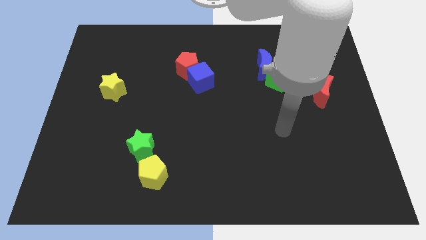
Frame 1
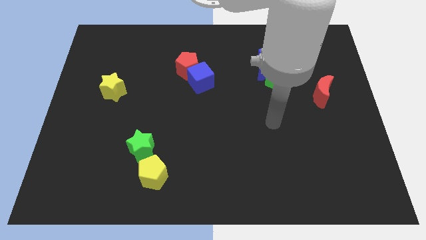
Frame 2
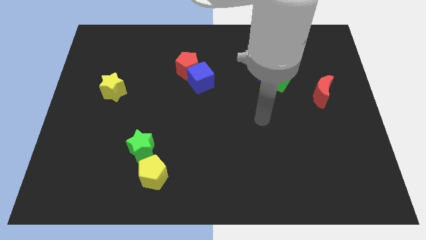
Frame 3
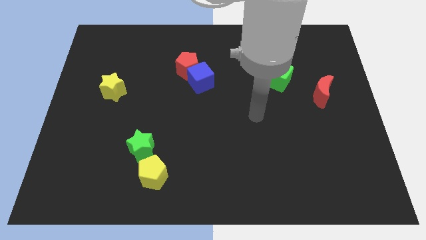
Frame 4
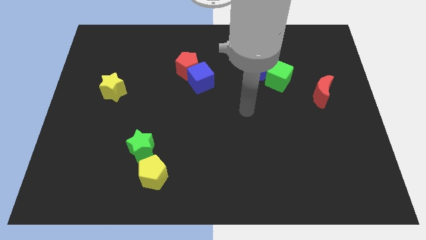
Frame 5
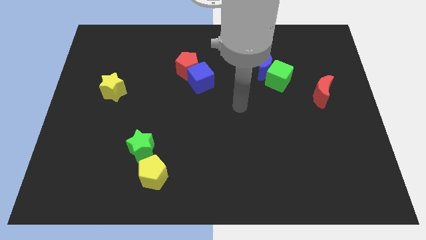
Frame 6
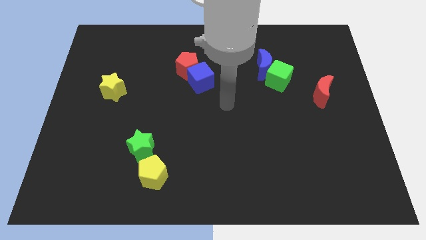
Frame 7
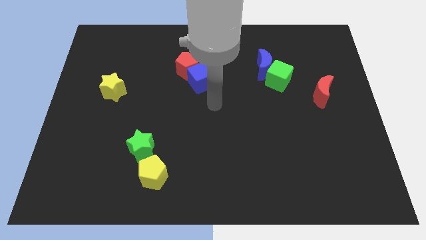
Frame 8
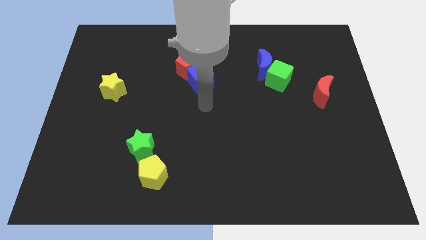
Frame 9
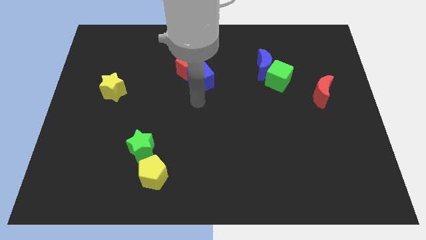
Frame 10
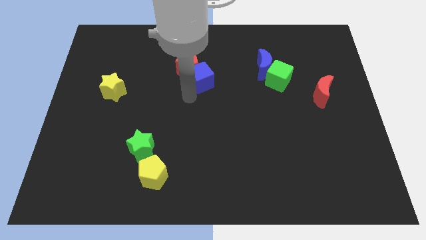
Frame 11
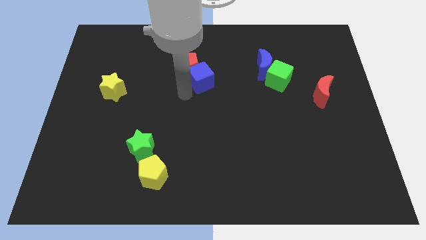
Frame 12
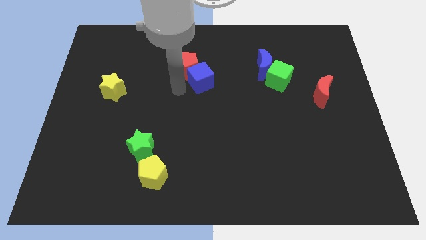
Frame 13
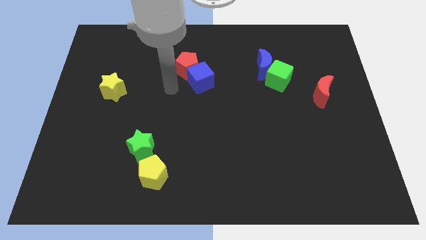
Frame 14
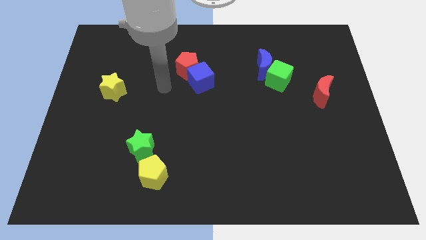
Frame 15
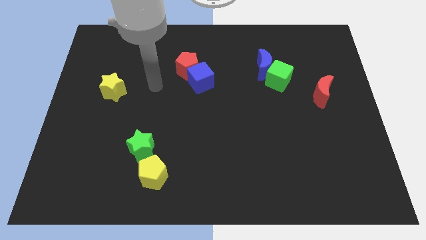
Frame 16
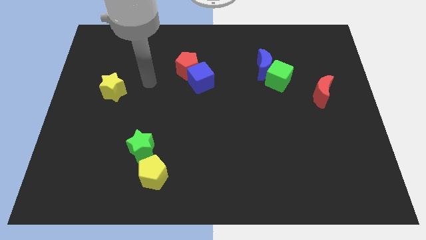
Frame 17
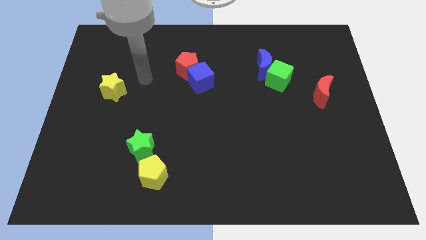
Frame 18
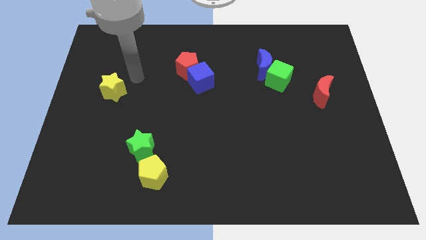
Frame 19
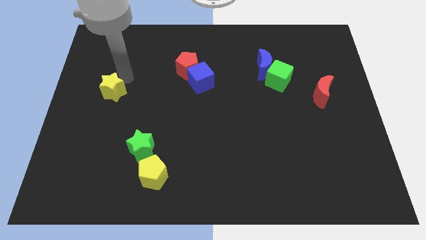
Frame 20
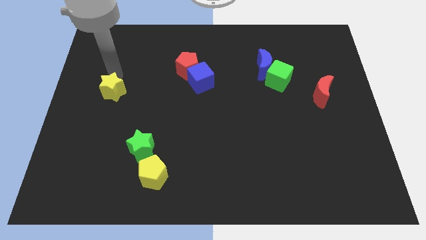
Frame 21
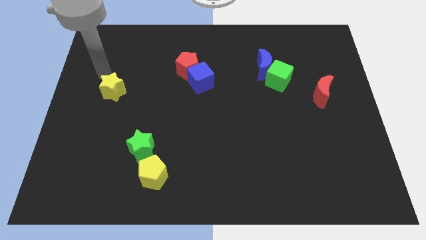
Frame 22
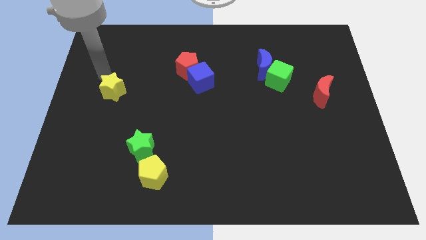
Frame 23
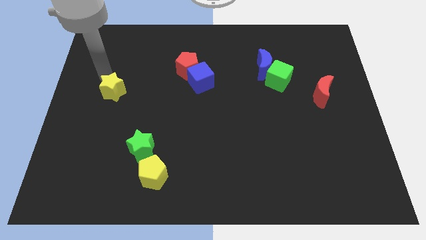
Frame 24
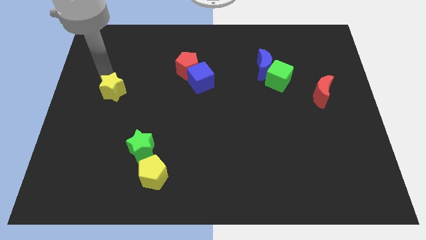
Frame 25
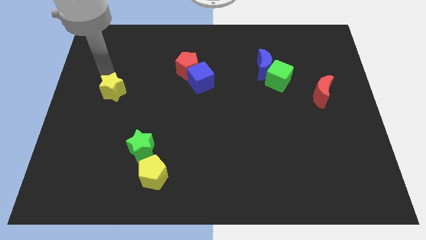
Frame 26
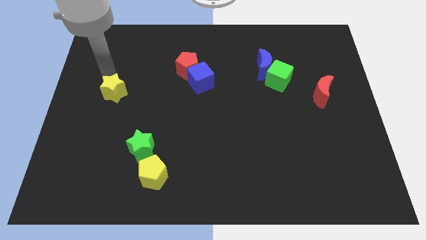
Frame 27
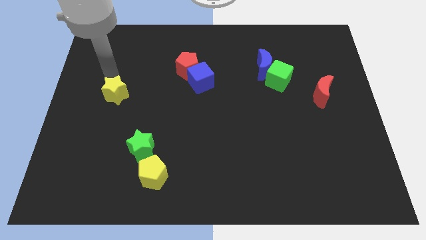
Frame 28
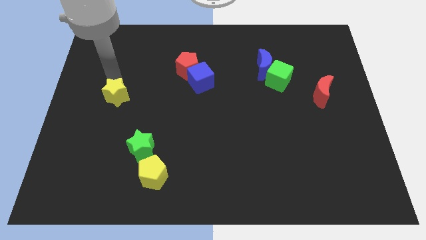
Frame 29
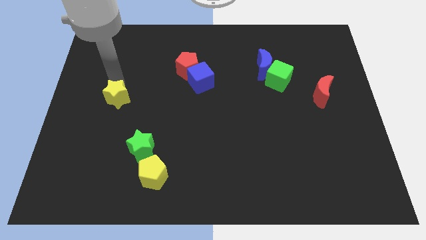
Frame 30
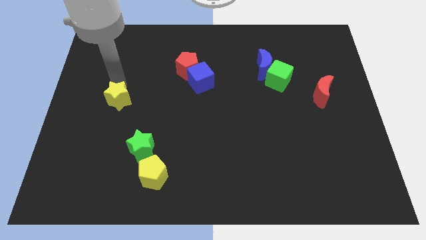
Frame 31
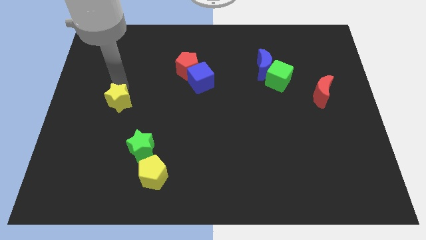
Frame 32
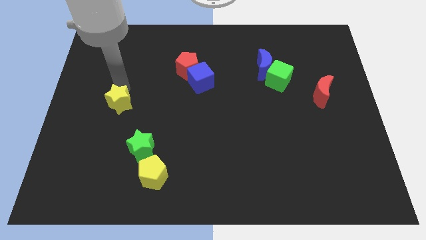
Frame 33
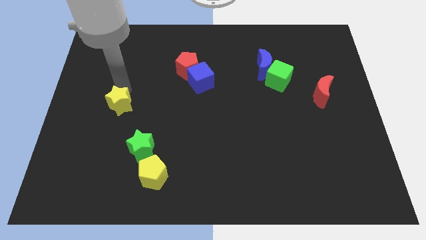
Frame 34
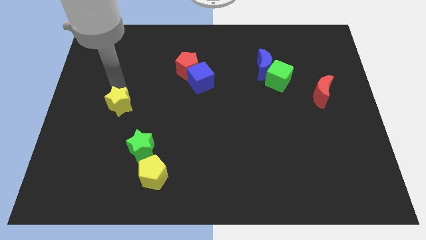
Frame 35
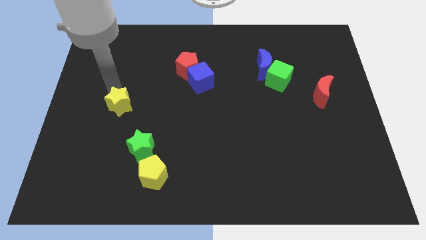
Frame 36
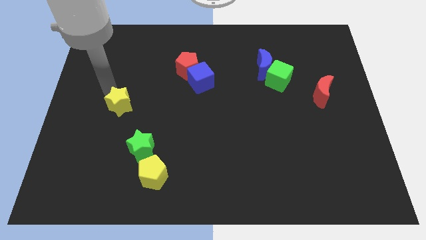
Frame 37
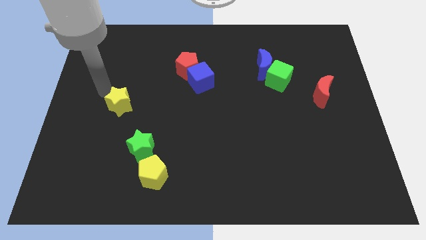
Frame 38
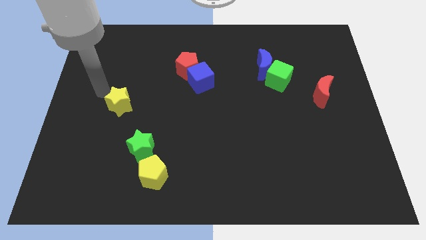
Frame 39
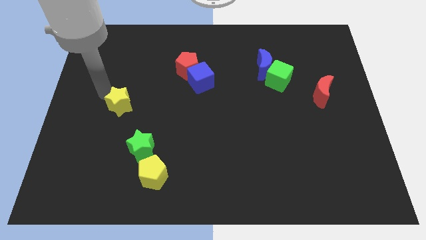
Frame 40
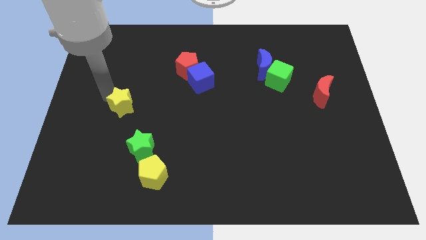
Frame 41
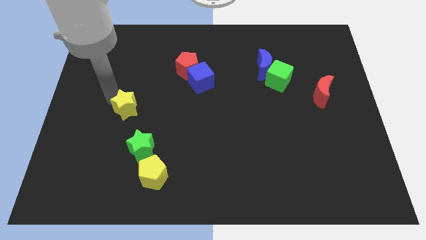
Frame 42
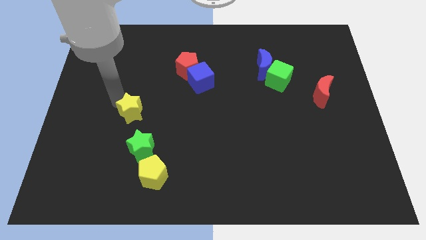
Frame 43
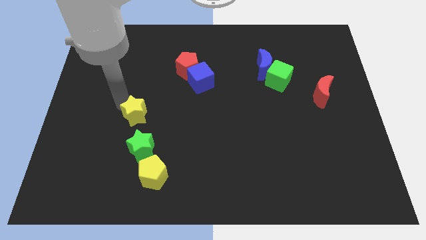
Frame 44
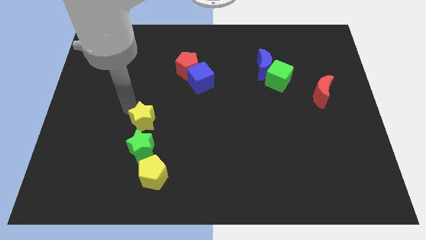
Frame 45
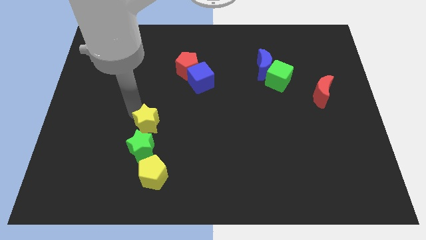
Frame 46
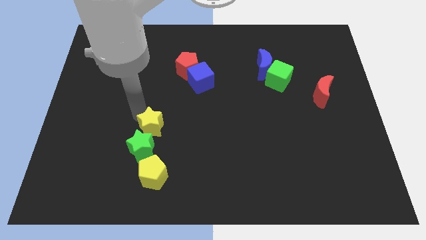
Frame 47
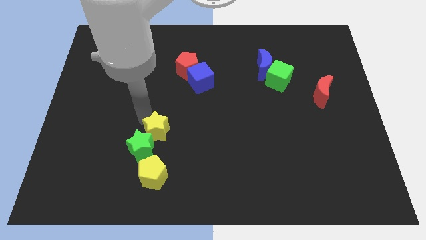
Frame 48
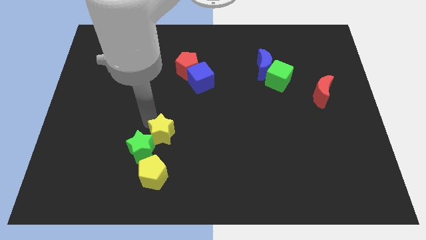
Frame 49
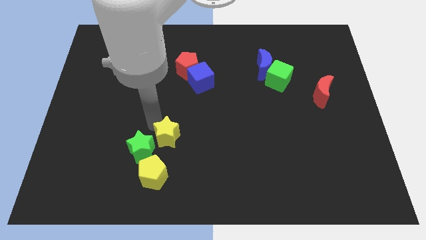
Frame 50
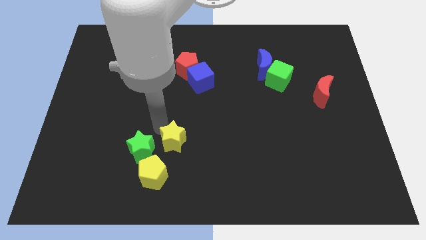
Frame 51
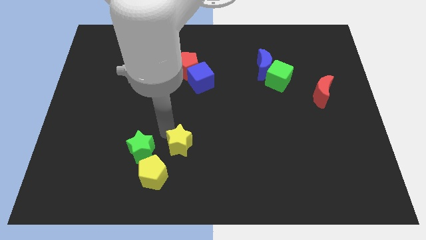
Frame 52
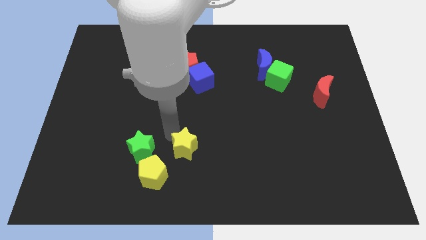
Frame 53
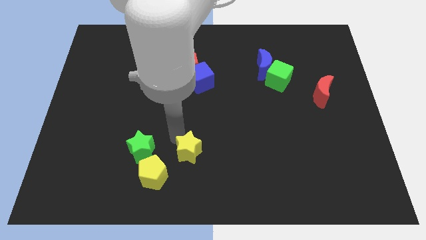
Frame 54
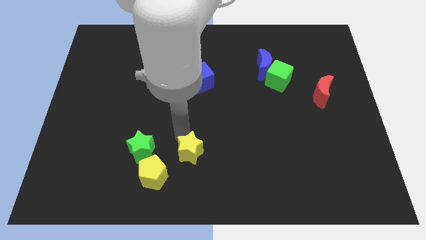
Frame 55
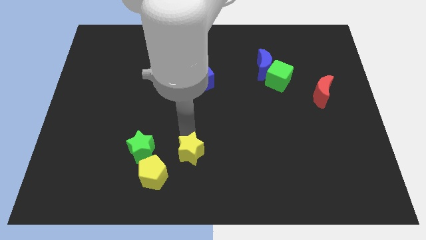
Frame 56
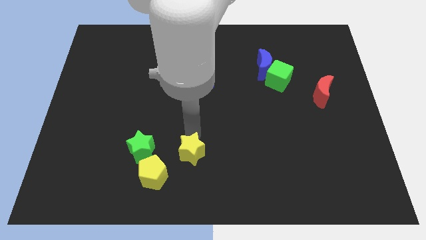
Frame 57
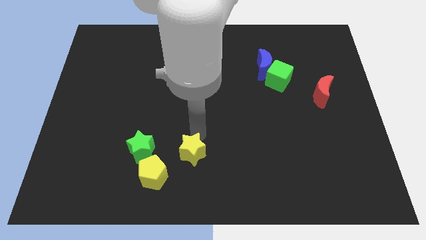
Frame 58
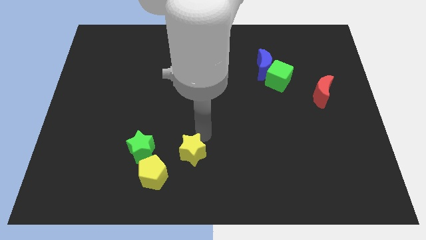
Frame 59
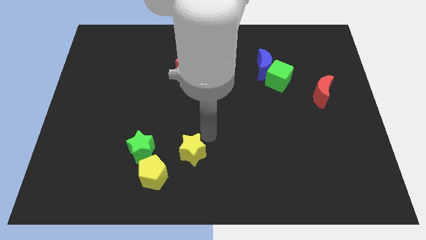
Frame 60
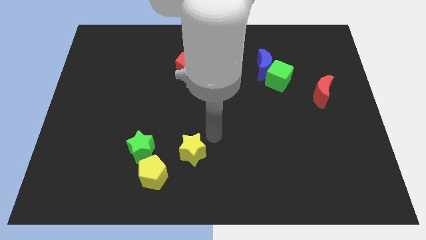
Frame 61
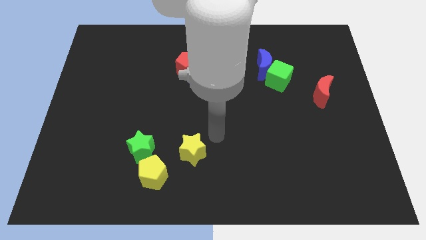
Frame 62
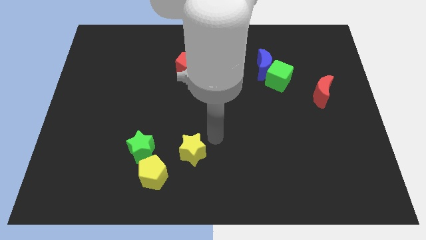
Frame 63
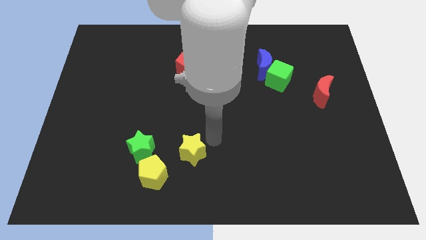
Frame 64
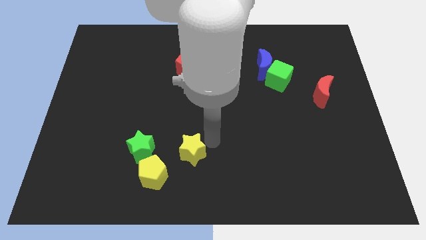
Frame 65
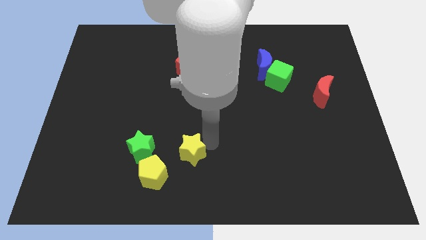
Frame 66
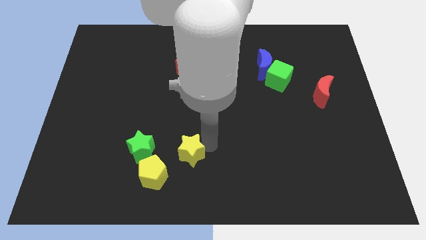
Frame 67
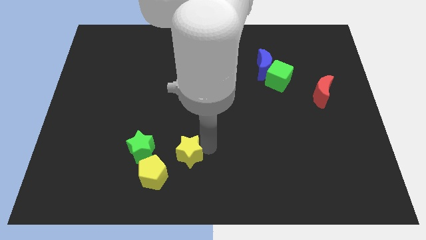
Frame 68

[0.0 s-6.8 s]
put the yellow star to the right of the yellow pentagon

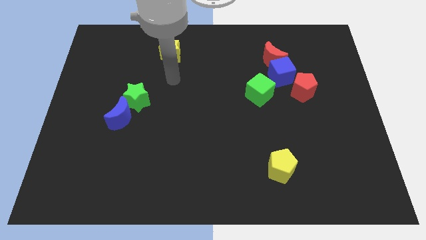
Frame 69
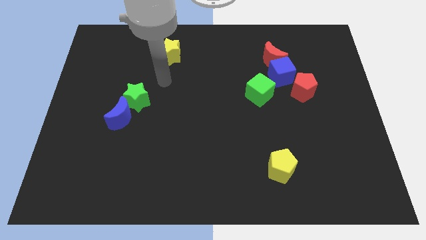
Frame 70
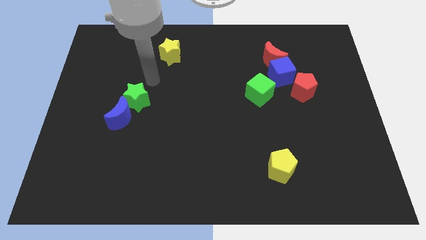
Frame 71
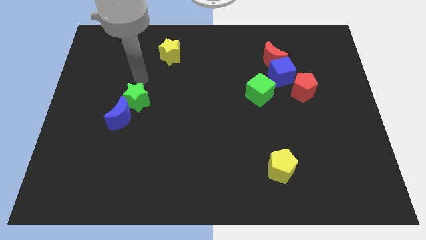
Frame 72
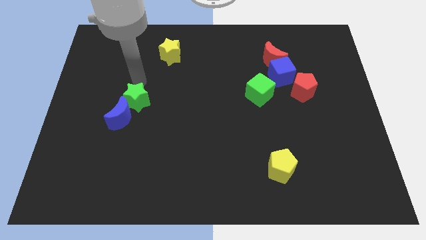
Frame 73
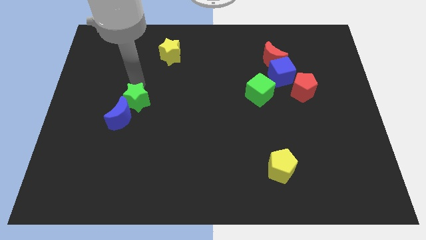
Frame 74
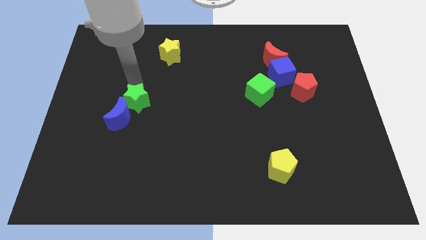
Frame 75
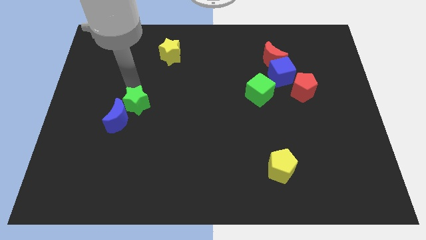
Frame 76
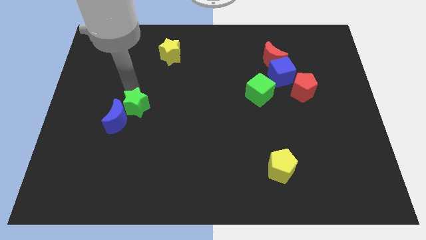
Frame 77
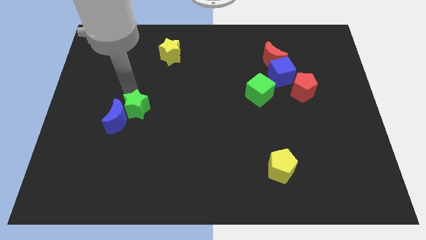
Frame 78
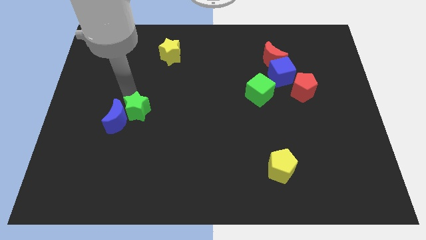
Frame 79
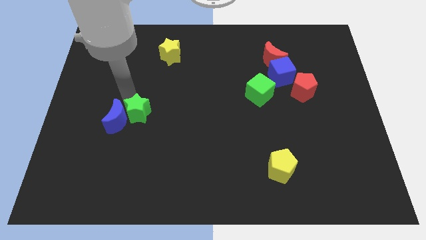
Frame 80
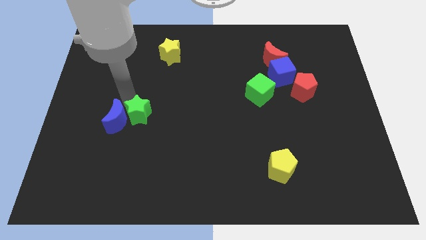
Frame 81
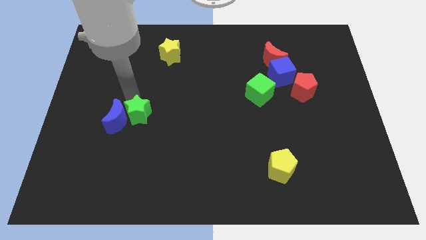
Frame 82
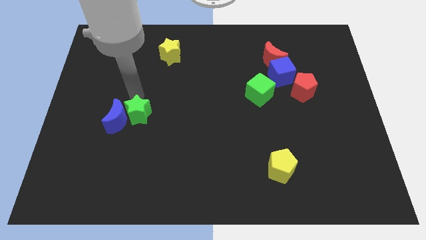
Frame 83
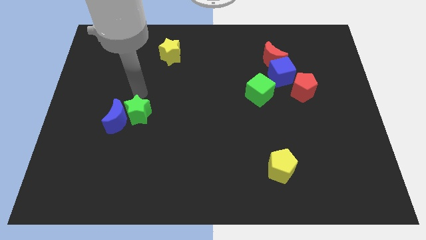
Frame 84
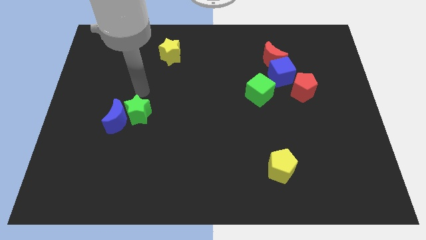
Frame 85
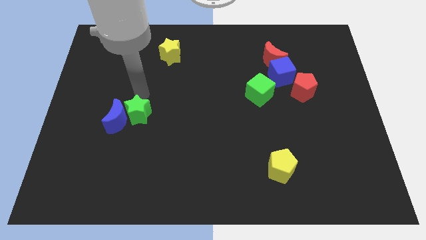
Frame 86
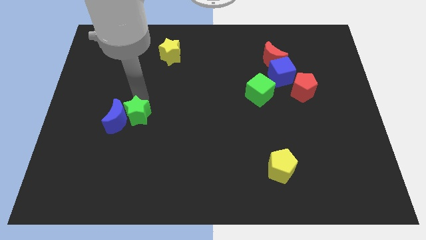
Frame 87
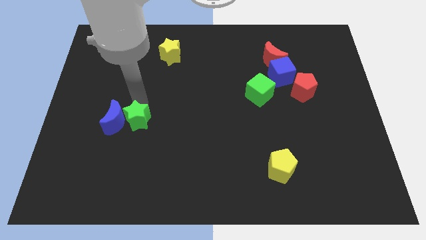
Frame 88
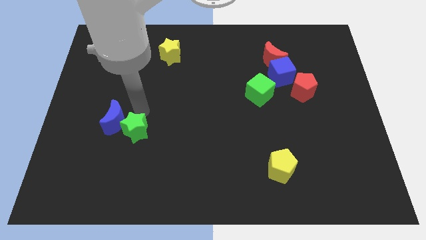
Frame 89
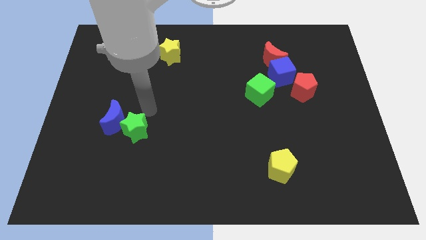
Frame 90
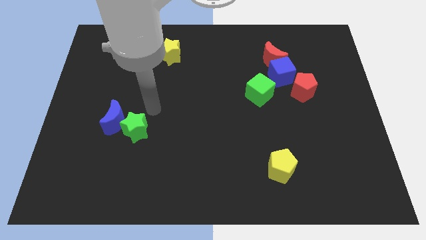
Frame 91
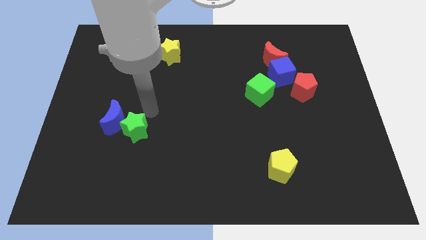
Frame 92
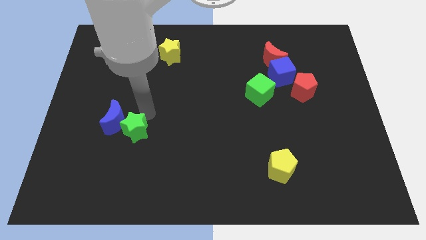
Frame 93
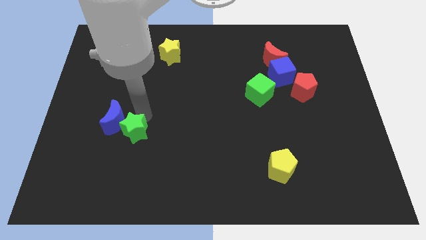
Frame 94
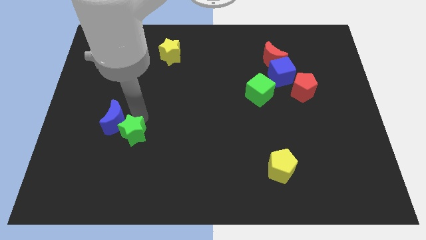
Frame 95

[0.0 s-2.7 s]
slide the green star to the bottom of the blue moon
